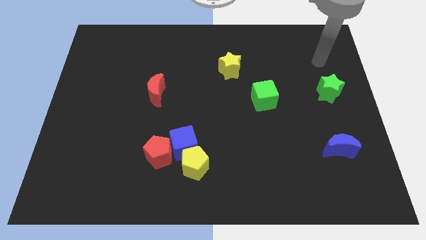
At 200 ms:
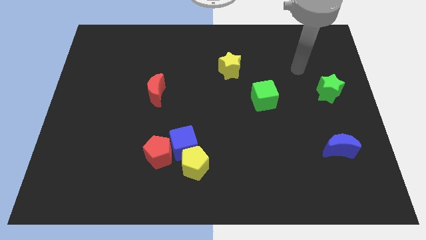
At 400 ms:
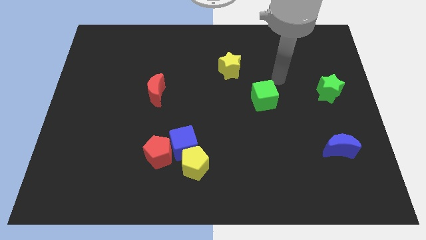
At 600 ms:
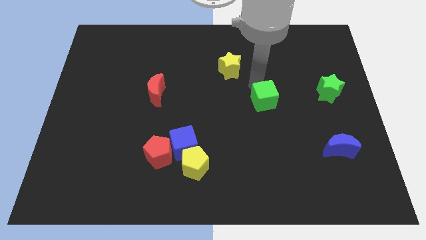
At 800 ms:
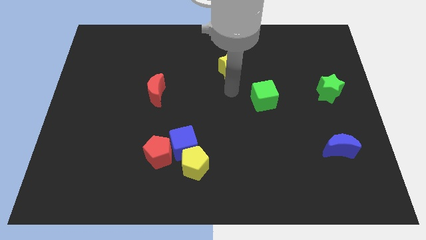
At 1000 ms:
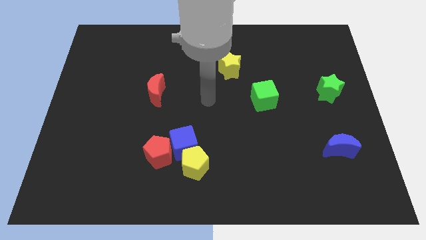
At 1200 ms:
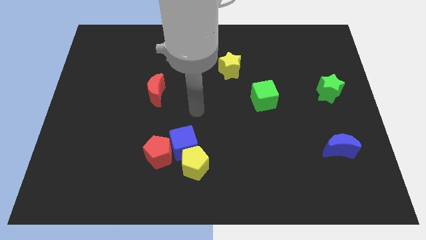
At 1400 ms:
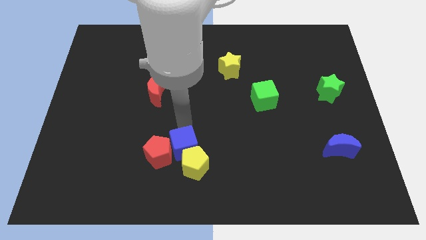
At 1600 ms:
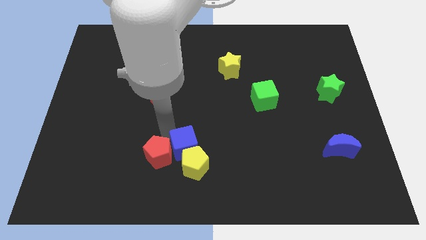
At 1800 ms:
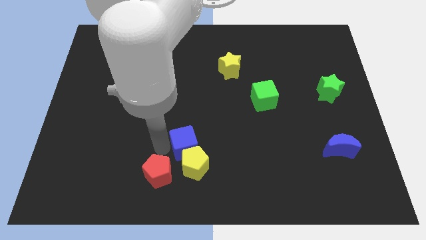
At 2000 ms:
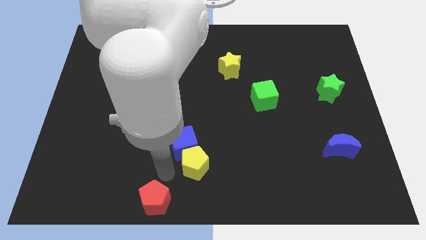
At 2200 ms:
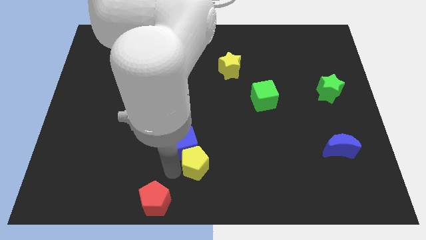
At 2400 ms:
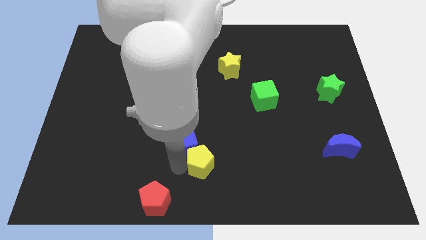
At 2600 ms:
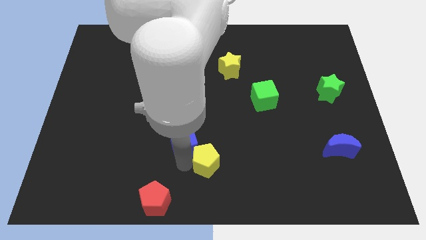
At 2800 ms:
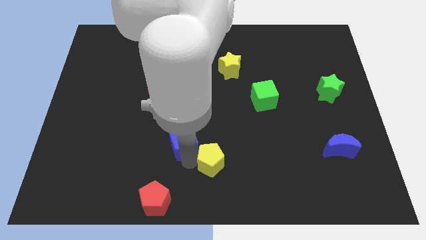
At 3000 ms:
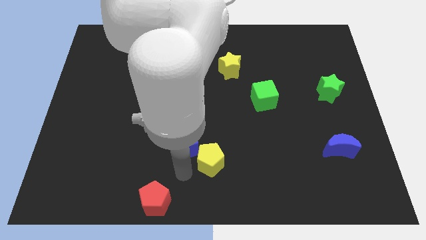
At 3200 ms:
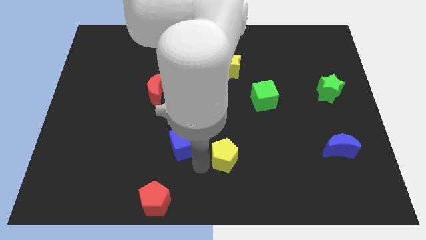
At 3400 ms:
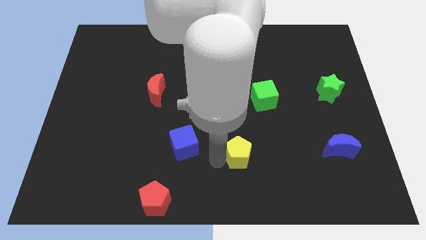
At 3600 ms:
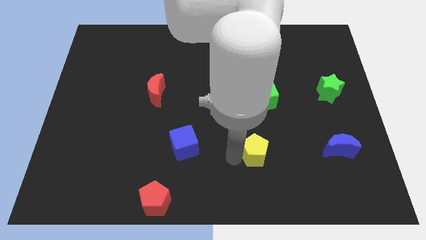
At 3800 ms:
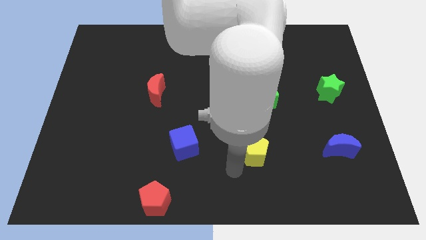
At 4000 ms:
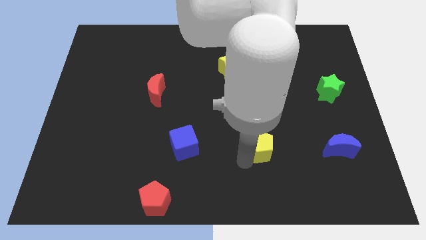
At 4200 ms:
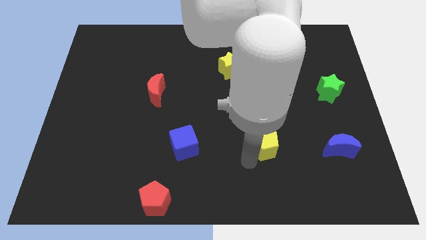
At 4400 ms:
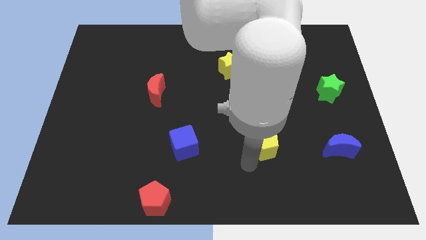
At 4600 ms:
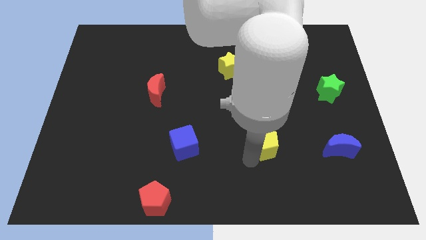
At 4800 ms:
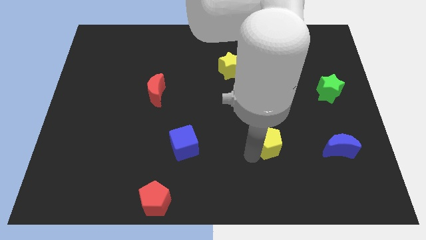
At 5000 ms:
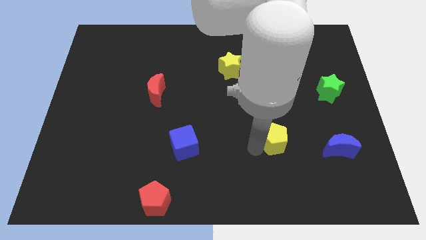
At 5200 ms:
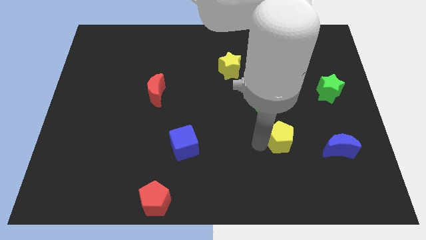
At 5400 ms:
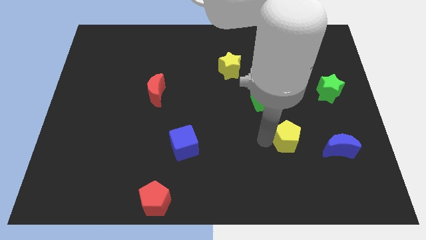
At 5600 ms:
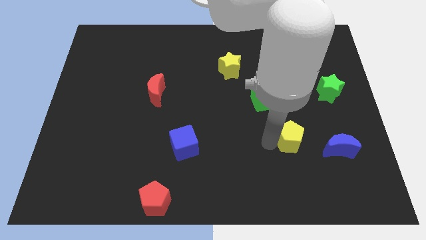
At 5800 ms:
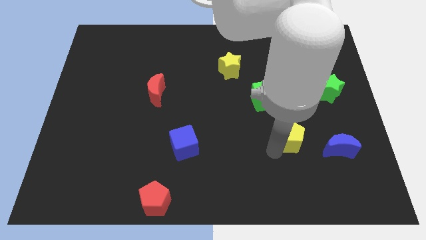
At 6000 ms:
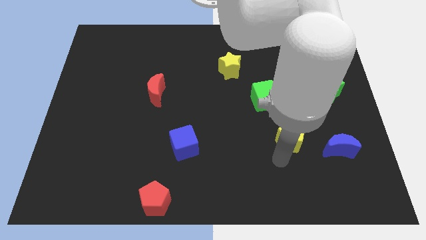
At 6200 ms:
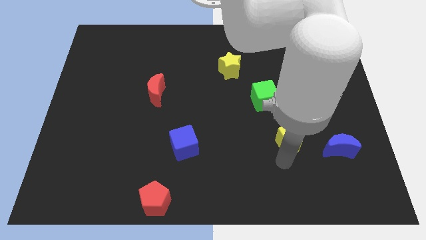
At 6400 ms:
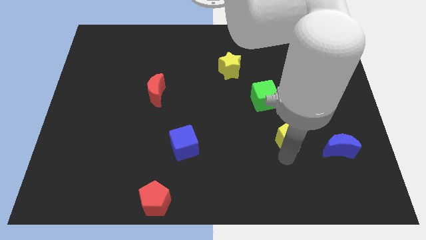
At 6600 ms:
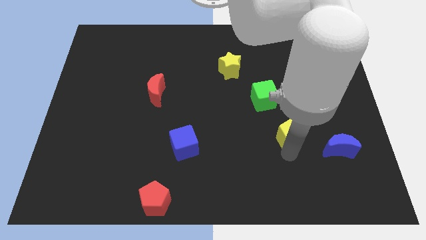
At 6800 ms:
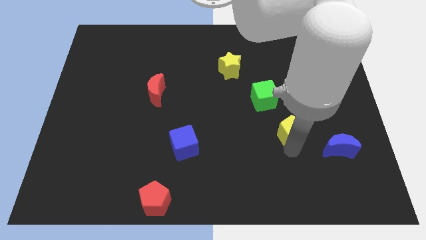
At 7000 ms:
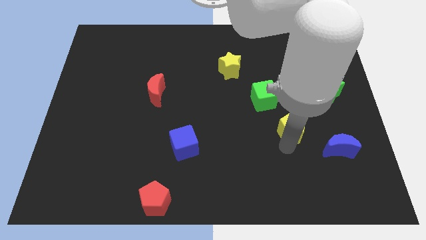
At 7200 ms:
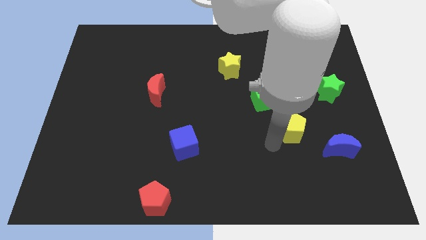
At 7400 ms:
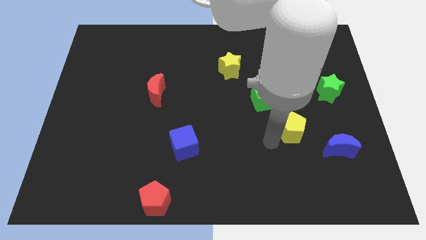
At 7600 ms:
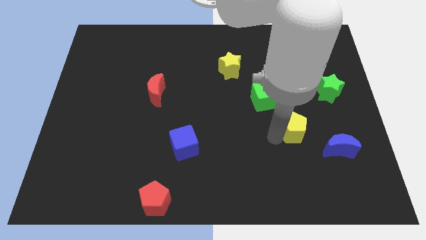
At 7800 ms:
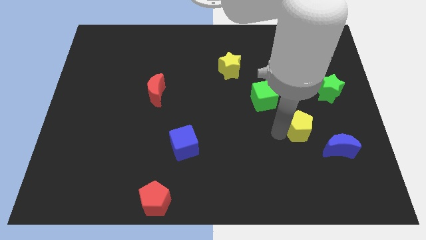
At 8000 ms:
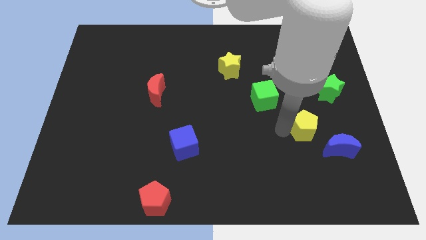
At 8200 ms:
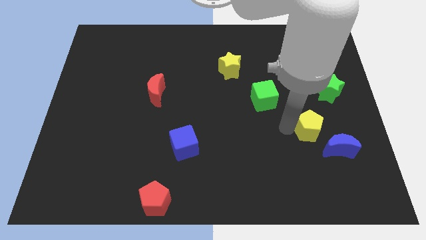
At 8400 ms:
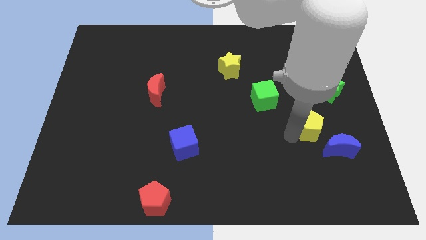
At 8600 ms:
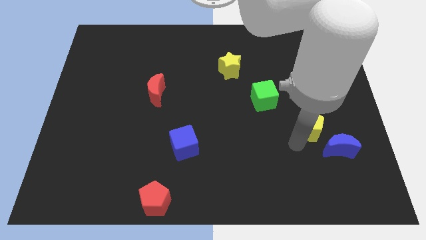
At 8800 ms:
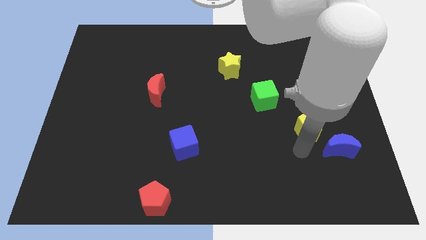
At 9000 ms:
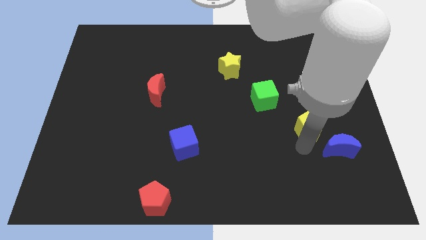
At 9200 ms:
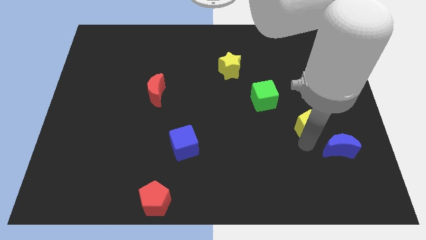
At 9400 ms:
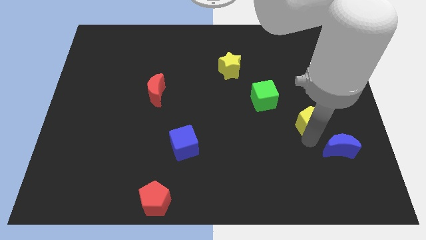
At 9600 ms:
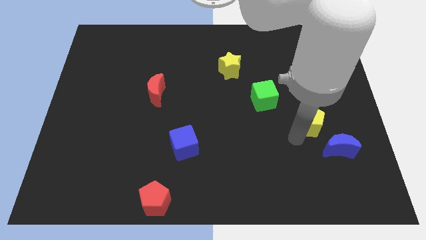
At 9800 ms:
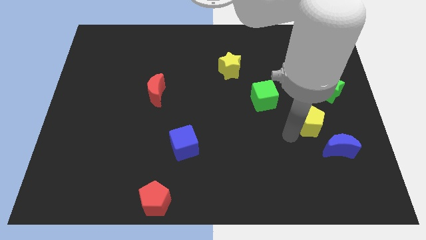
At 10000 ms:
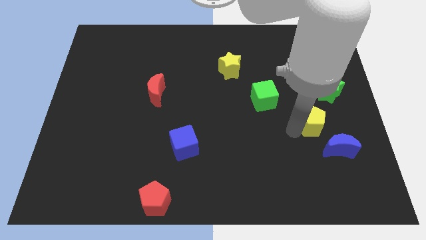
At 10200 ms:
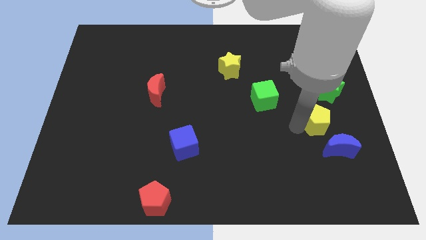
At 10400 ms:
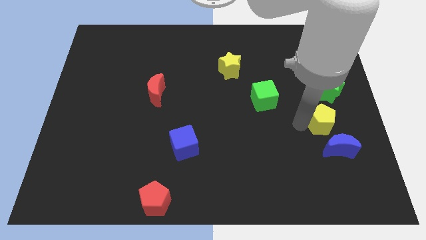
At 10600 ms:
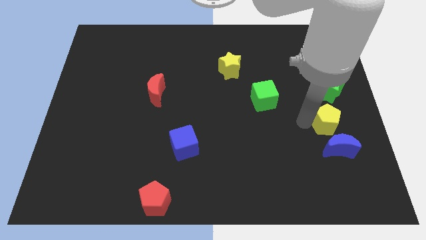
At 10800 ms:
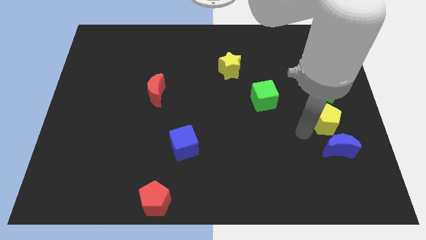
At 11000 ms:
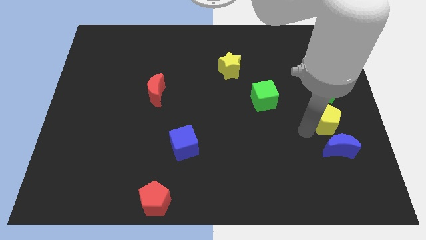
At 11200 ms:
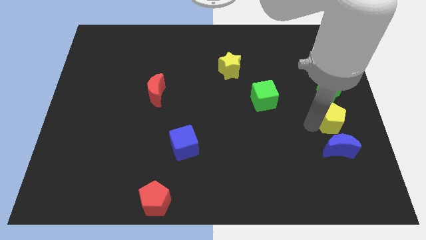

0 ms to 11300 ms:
move the yellow pentagon to the center right

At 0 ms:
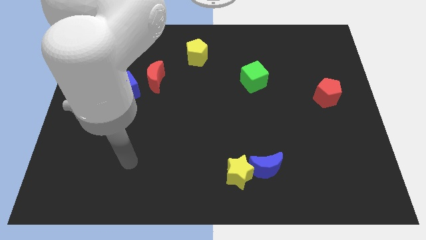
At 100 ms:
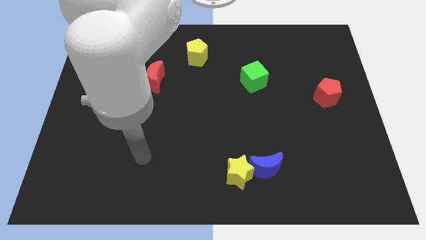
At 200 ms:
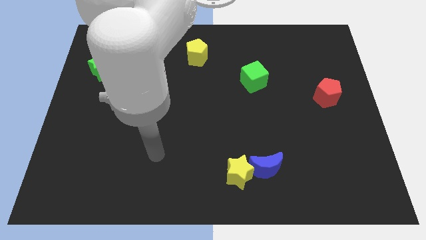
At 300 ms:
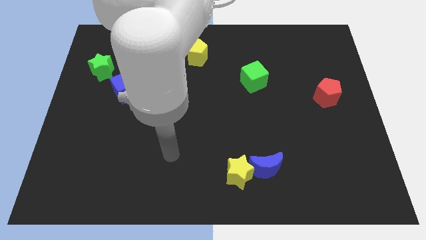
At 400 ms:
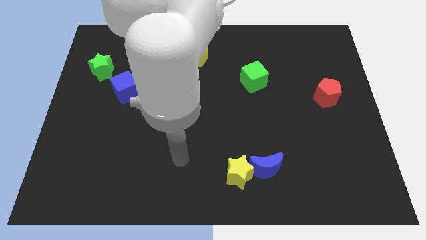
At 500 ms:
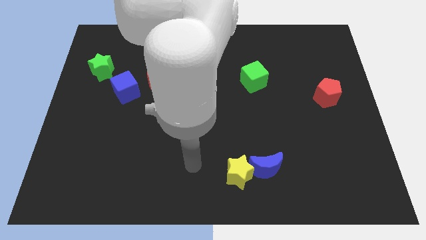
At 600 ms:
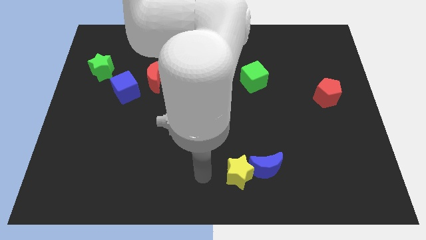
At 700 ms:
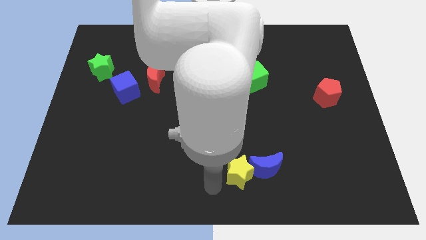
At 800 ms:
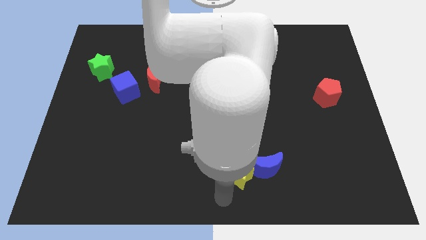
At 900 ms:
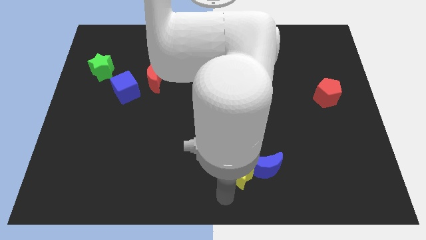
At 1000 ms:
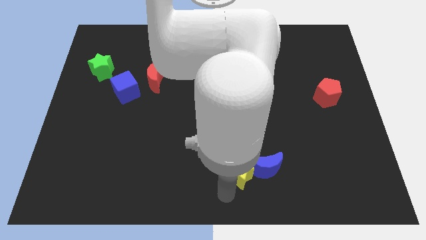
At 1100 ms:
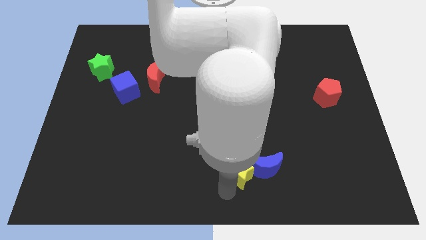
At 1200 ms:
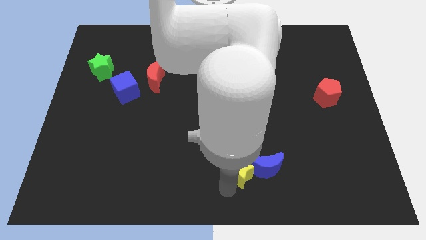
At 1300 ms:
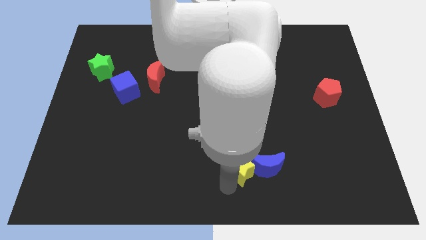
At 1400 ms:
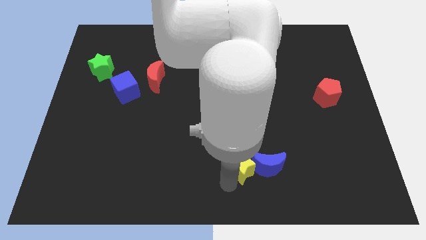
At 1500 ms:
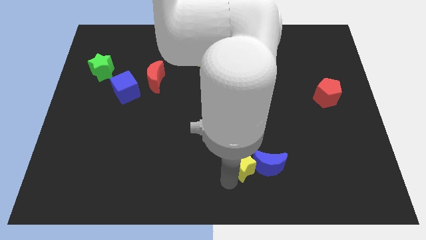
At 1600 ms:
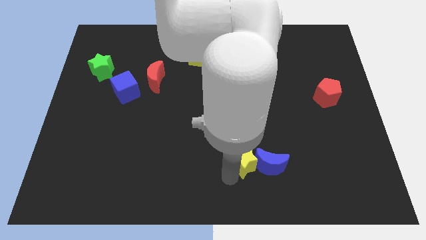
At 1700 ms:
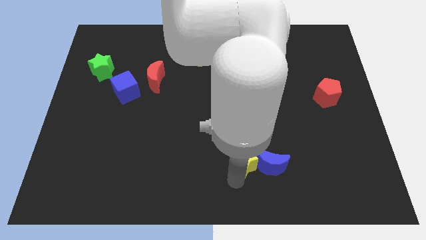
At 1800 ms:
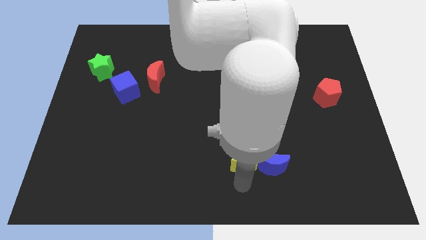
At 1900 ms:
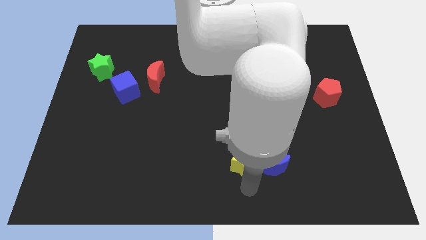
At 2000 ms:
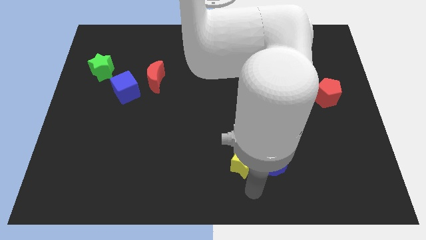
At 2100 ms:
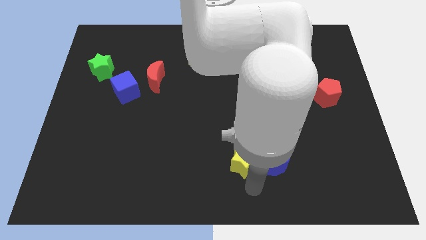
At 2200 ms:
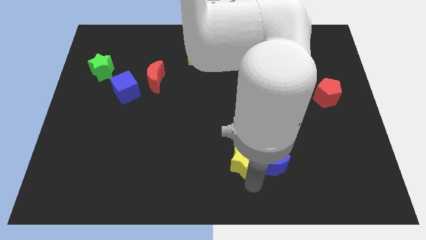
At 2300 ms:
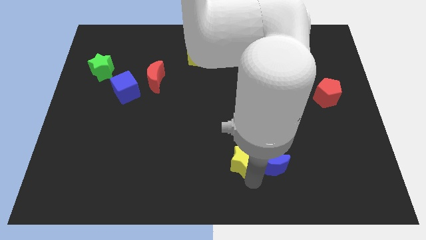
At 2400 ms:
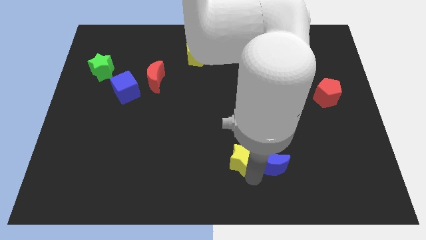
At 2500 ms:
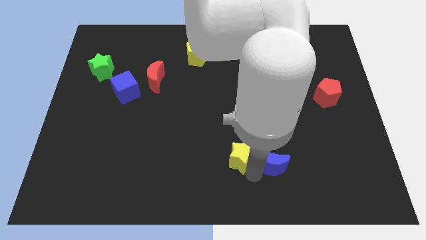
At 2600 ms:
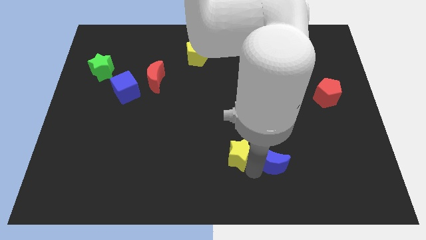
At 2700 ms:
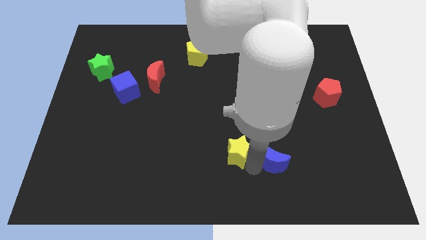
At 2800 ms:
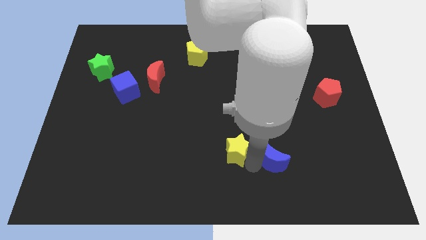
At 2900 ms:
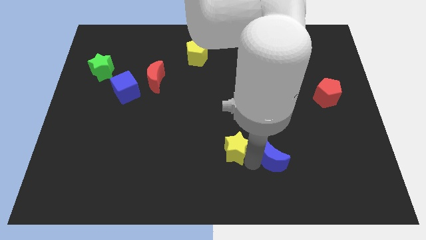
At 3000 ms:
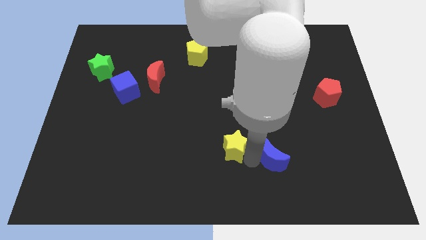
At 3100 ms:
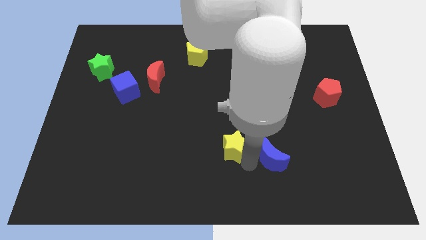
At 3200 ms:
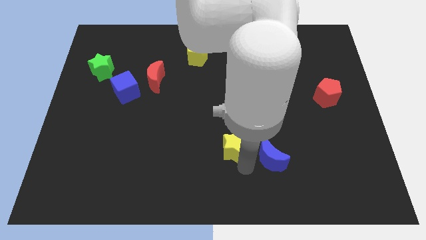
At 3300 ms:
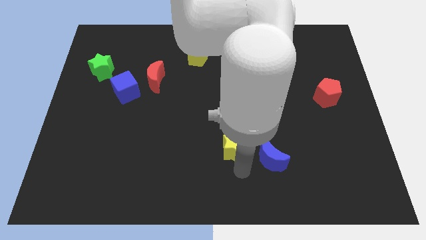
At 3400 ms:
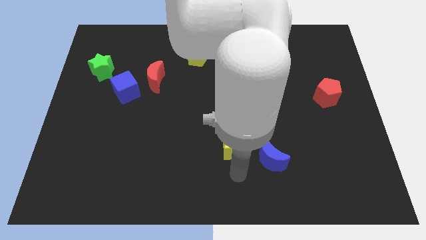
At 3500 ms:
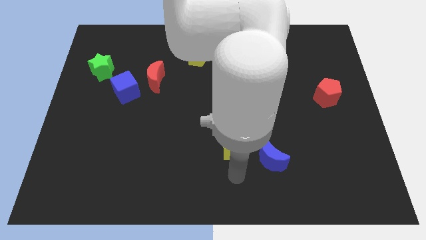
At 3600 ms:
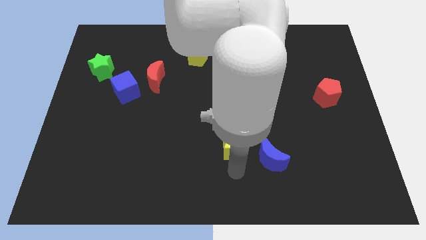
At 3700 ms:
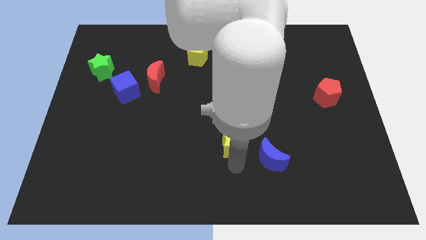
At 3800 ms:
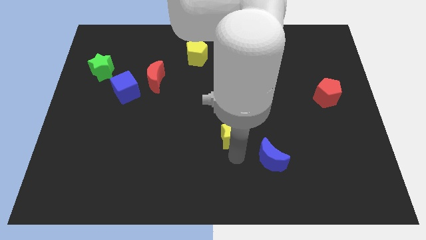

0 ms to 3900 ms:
move the yellow star to the middle
